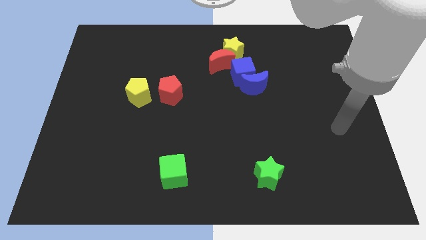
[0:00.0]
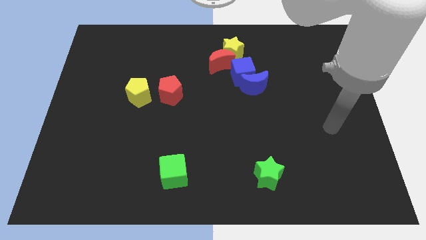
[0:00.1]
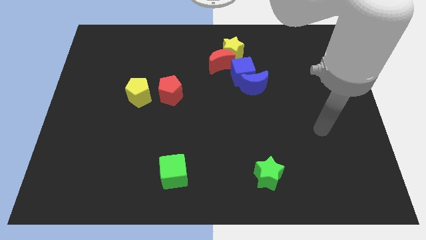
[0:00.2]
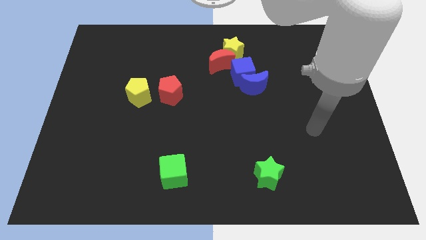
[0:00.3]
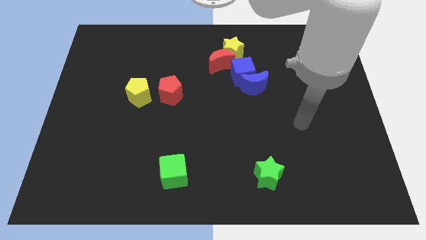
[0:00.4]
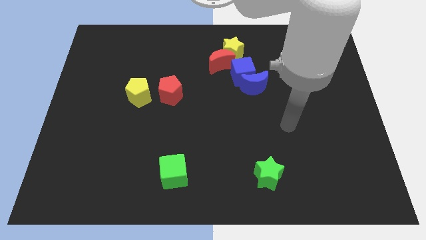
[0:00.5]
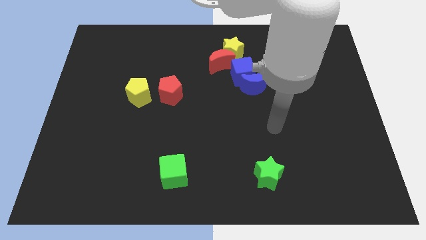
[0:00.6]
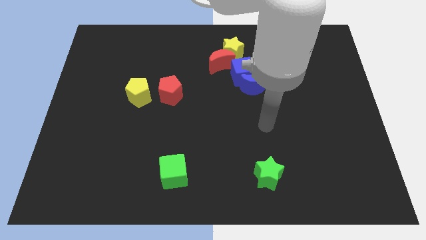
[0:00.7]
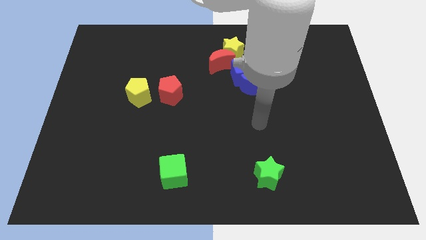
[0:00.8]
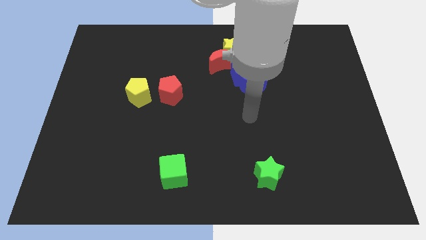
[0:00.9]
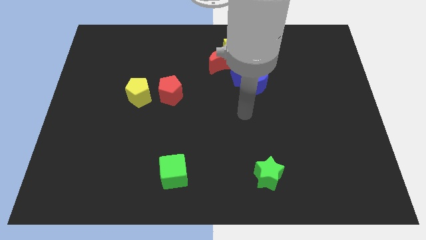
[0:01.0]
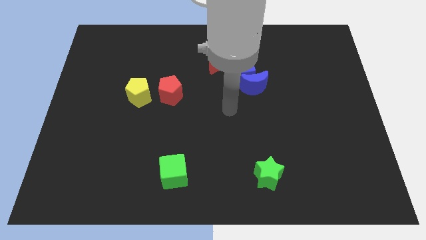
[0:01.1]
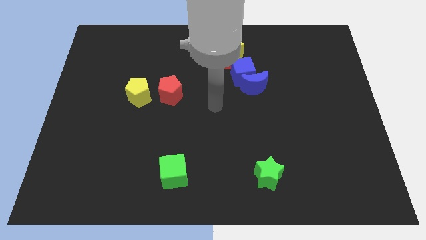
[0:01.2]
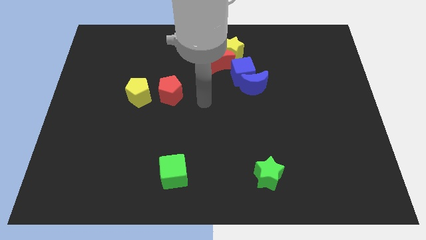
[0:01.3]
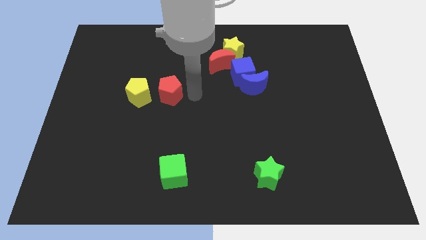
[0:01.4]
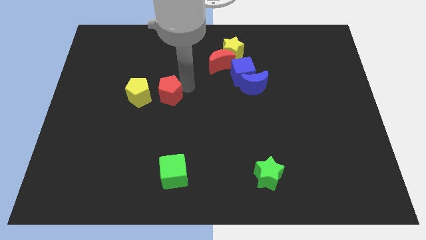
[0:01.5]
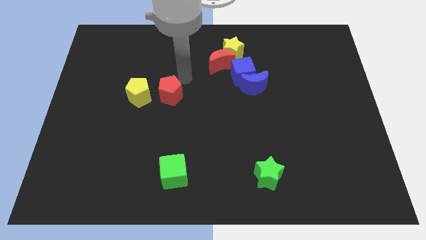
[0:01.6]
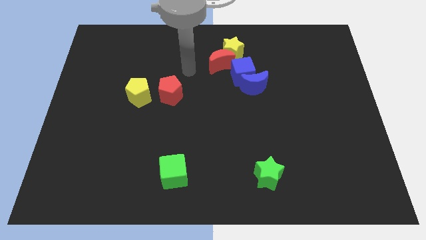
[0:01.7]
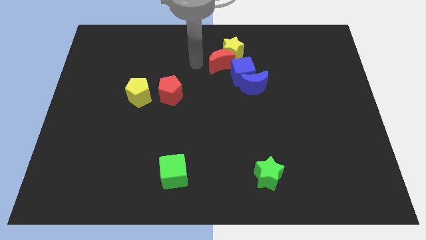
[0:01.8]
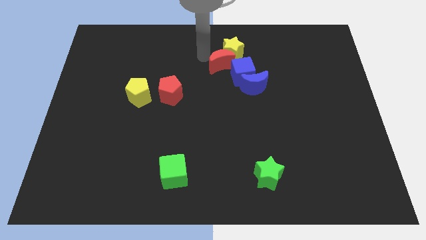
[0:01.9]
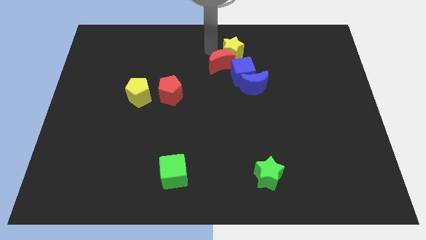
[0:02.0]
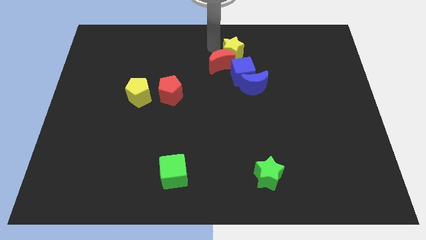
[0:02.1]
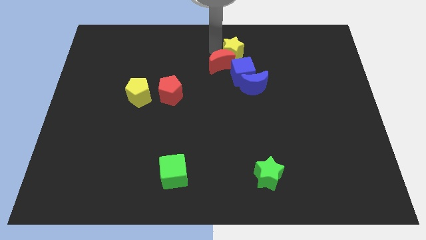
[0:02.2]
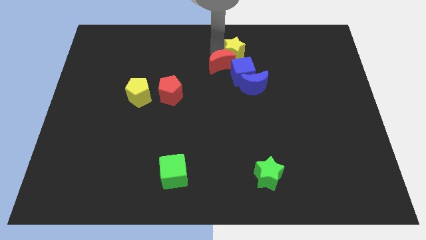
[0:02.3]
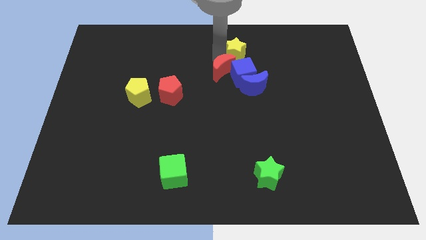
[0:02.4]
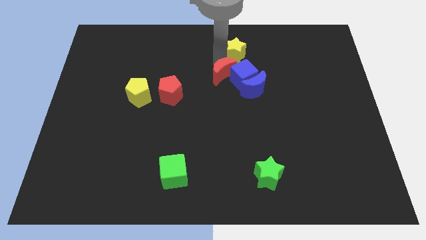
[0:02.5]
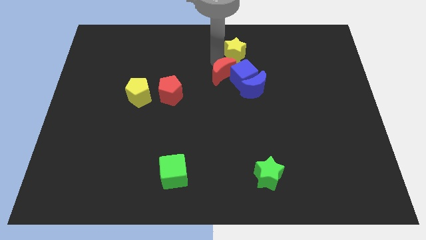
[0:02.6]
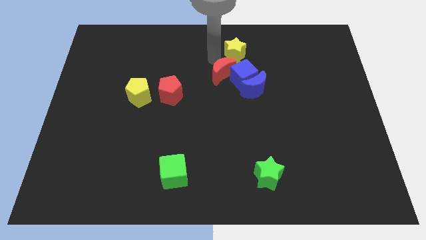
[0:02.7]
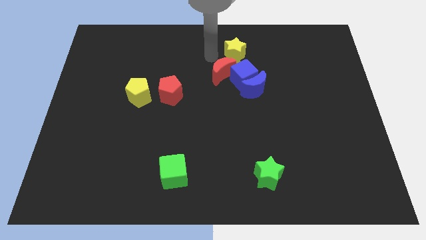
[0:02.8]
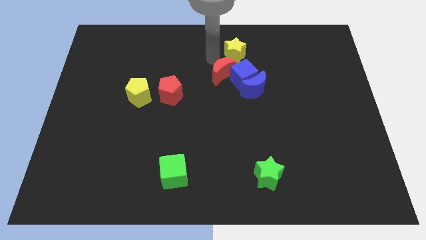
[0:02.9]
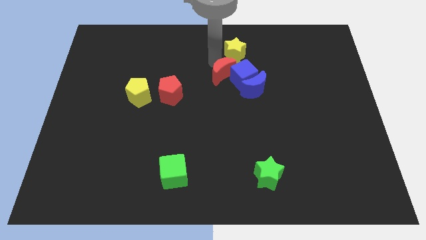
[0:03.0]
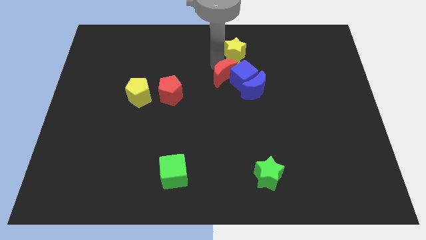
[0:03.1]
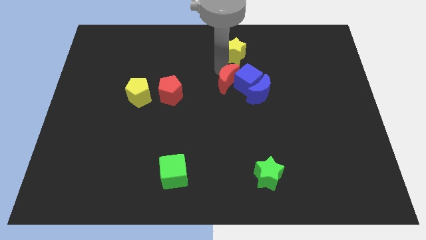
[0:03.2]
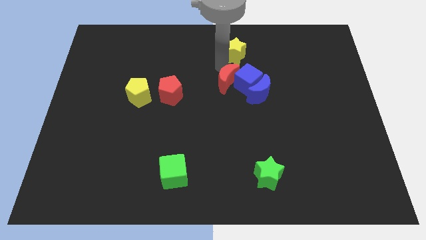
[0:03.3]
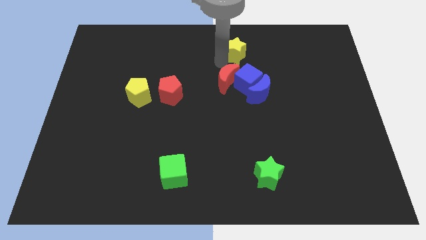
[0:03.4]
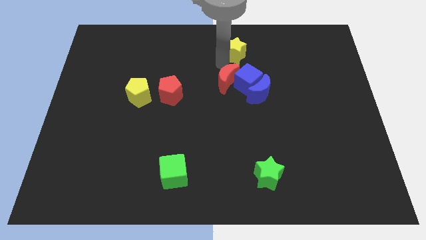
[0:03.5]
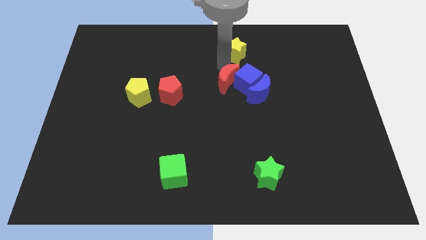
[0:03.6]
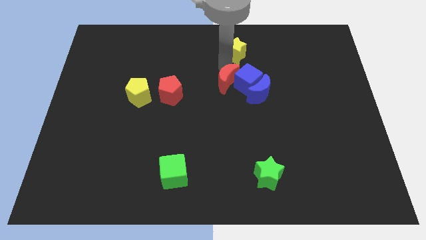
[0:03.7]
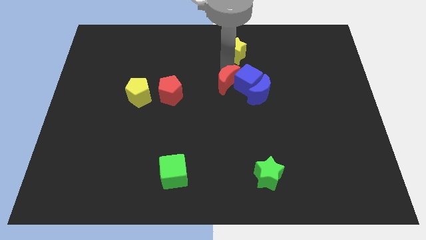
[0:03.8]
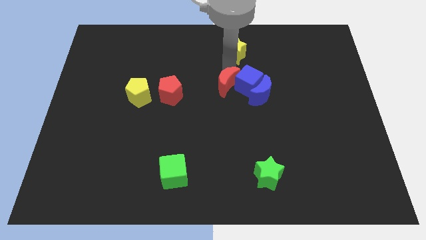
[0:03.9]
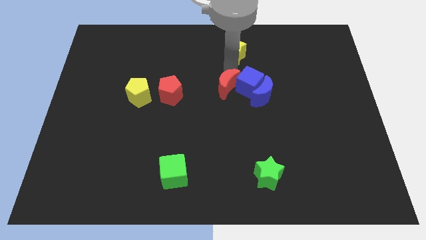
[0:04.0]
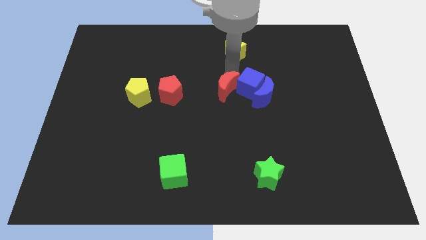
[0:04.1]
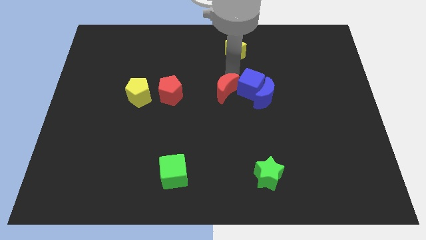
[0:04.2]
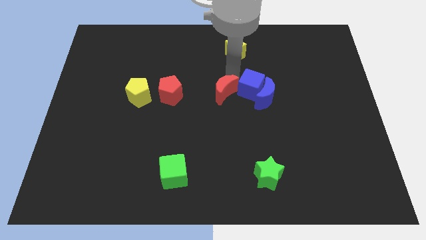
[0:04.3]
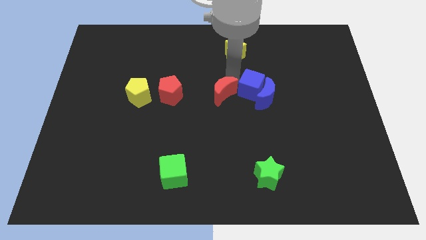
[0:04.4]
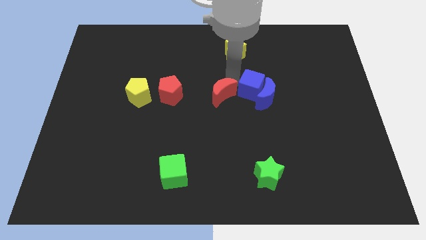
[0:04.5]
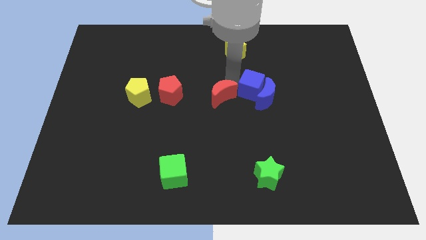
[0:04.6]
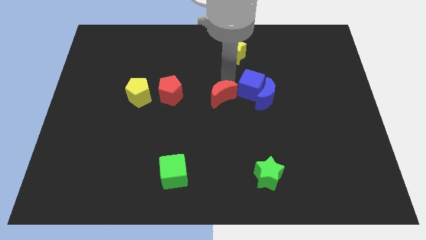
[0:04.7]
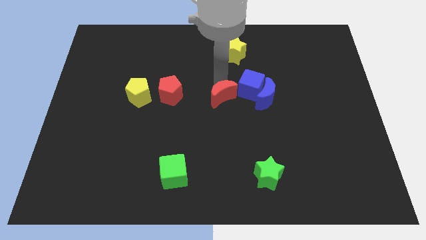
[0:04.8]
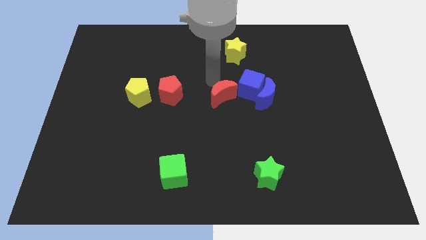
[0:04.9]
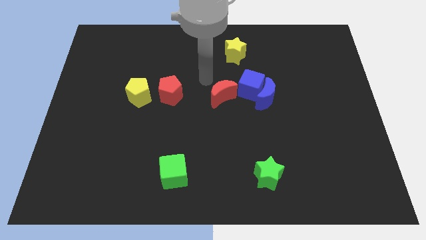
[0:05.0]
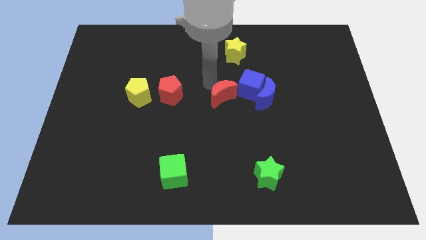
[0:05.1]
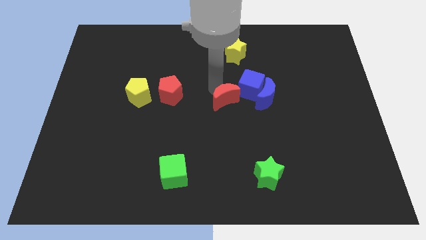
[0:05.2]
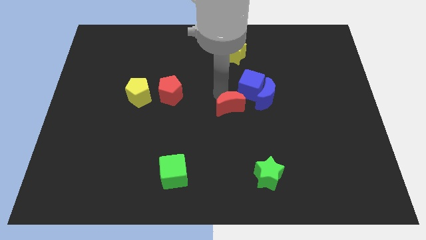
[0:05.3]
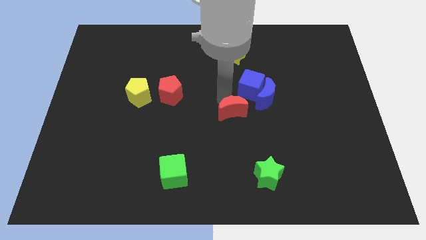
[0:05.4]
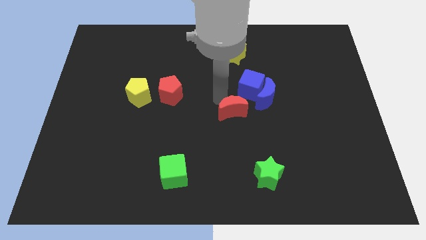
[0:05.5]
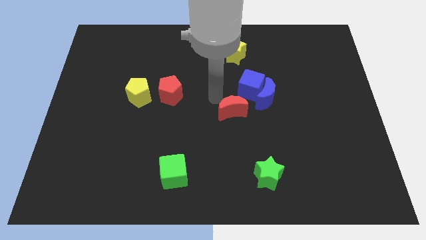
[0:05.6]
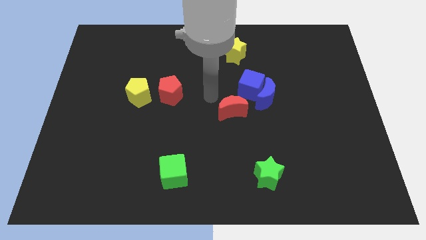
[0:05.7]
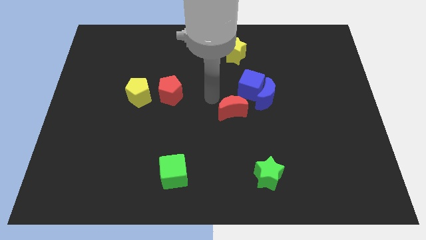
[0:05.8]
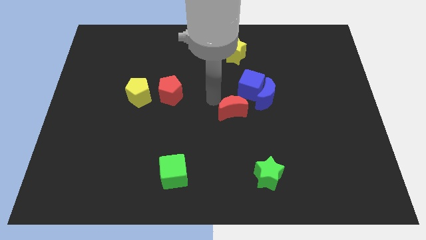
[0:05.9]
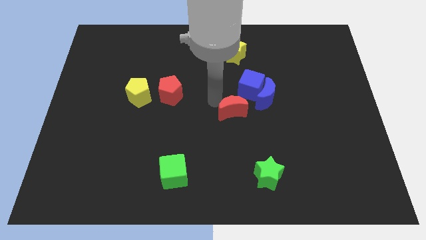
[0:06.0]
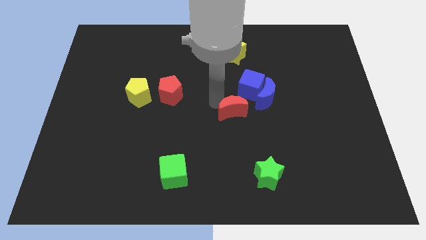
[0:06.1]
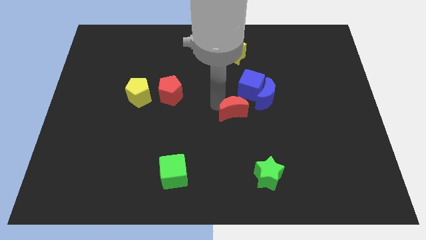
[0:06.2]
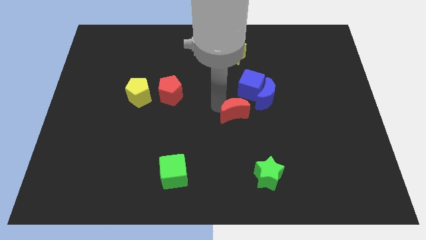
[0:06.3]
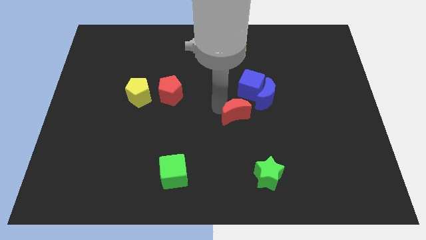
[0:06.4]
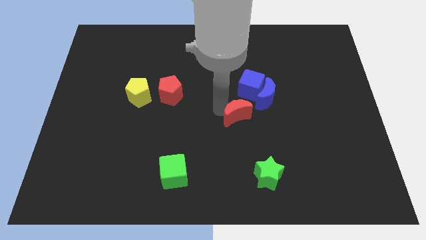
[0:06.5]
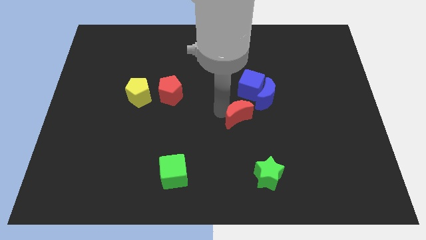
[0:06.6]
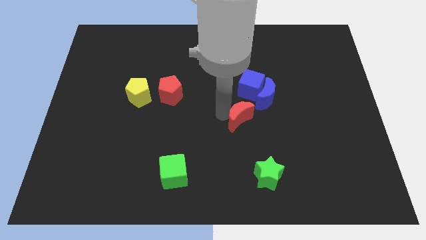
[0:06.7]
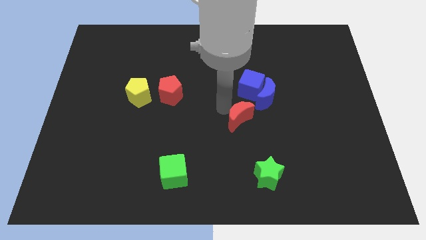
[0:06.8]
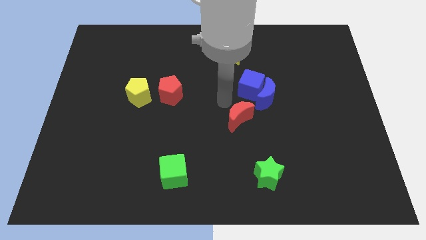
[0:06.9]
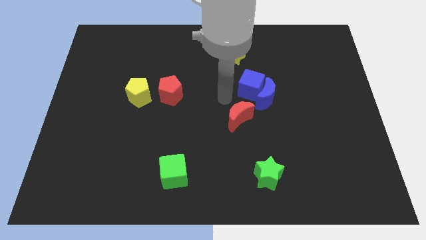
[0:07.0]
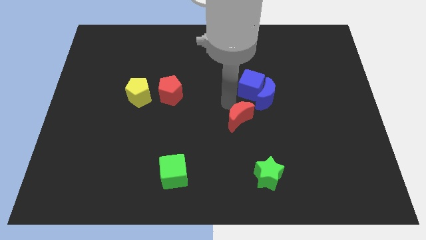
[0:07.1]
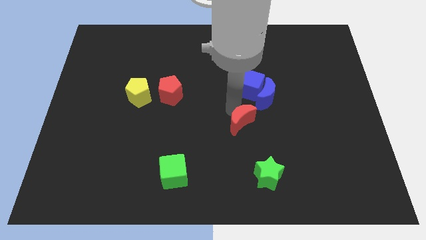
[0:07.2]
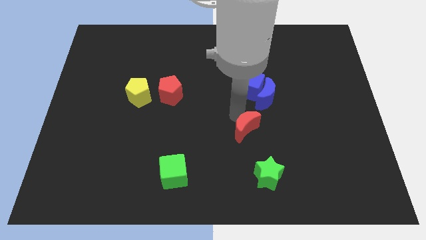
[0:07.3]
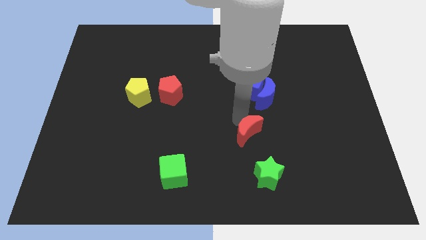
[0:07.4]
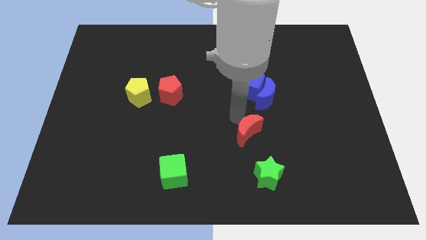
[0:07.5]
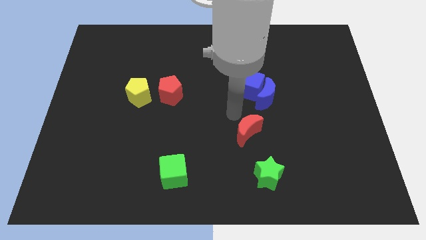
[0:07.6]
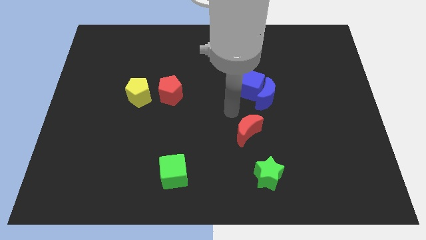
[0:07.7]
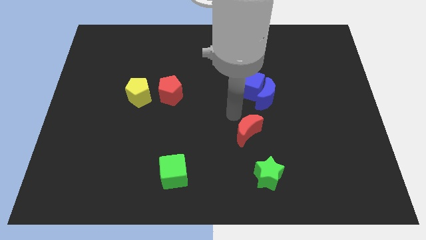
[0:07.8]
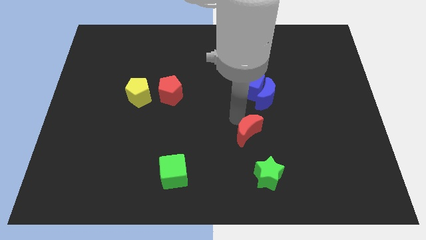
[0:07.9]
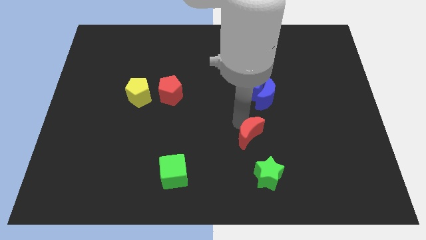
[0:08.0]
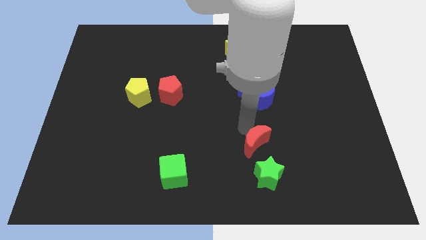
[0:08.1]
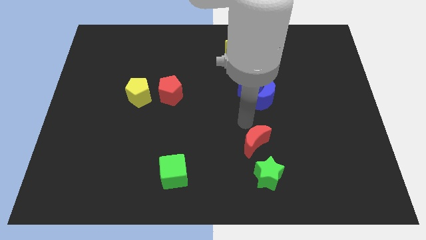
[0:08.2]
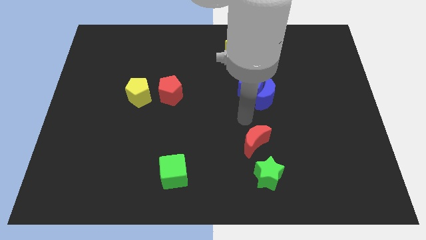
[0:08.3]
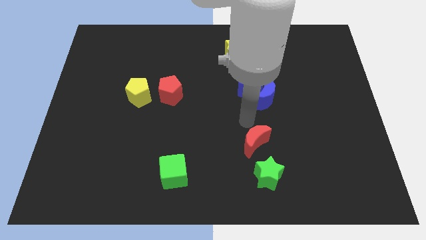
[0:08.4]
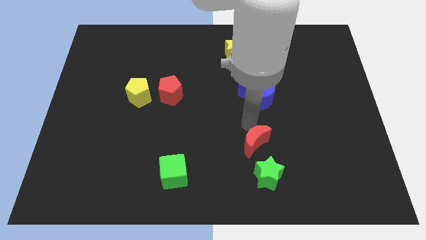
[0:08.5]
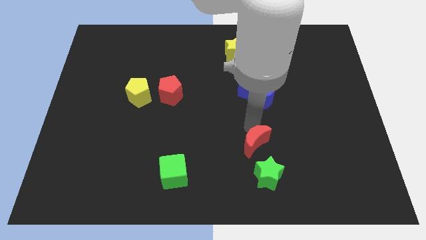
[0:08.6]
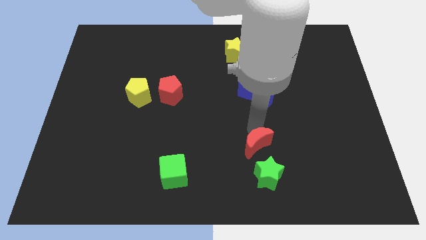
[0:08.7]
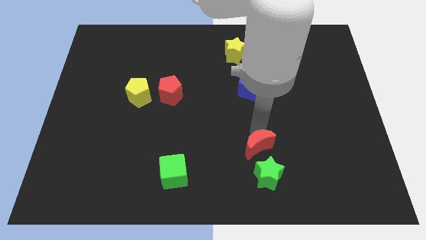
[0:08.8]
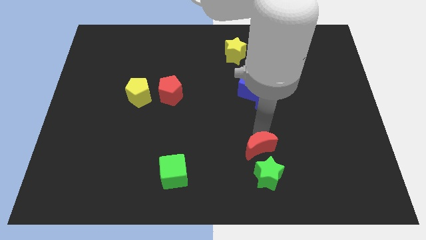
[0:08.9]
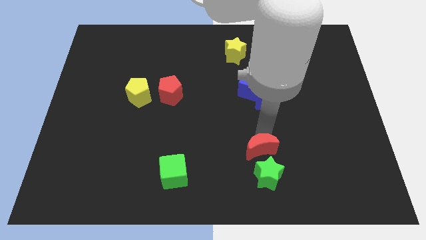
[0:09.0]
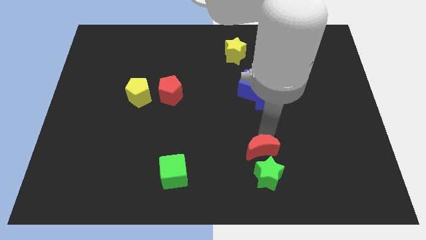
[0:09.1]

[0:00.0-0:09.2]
put the red moon towards the green star
